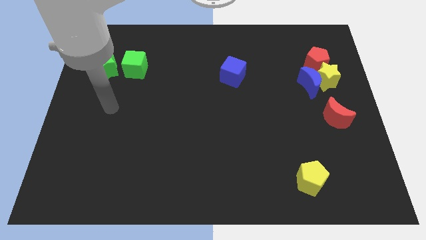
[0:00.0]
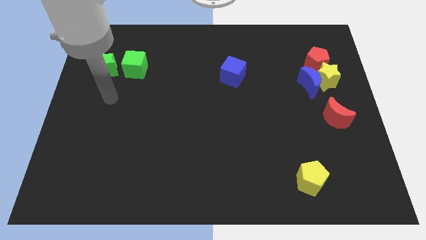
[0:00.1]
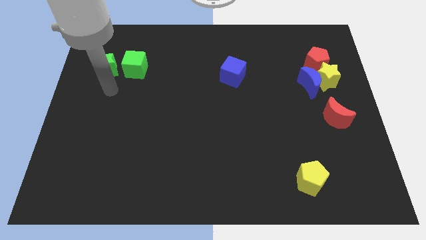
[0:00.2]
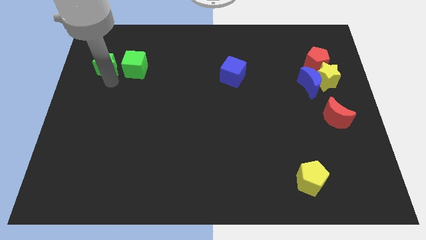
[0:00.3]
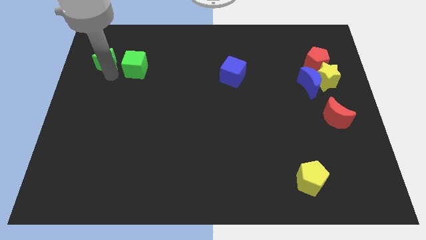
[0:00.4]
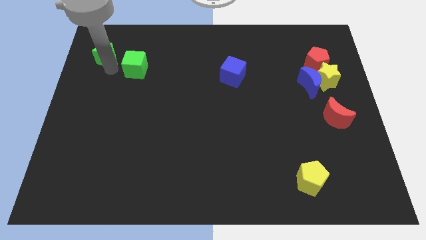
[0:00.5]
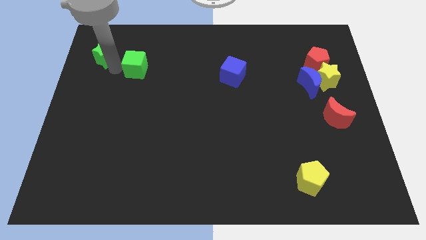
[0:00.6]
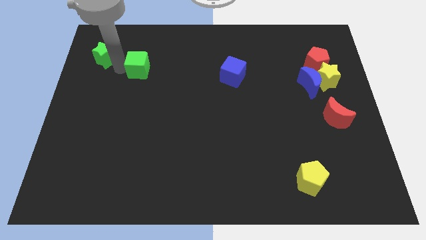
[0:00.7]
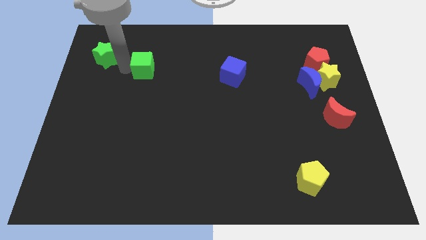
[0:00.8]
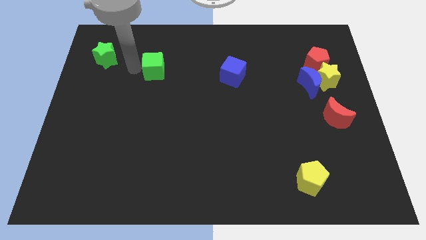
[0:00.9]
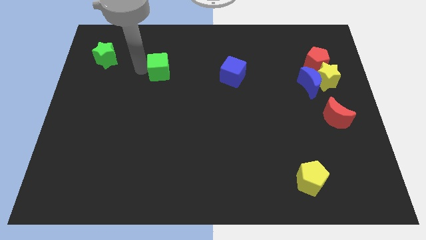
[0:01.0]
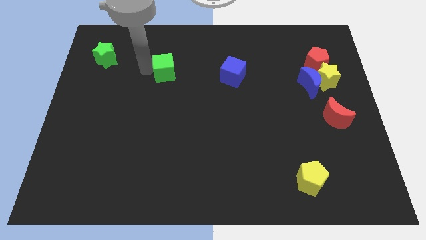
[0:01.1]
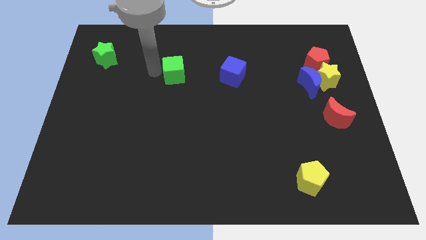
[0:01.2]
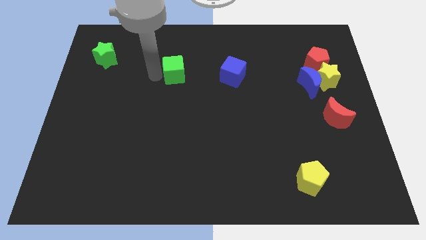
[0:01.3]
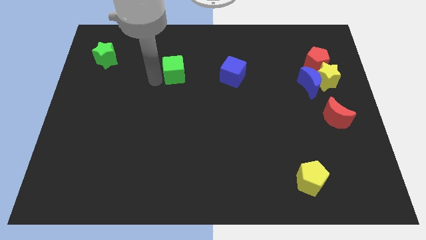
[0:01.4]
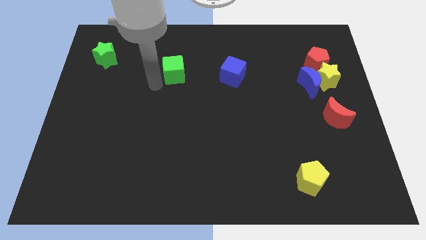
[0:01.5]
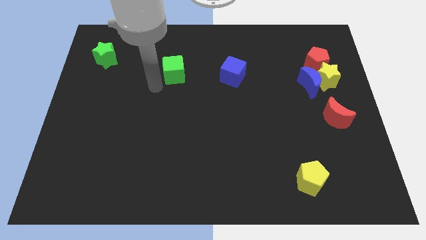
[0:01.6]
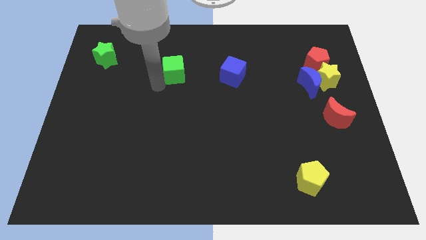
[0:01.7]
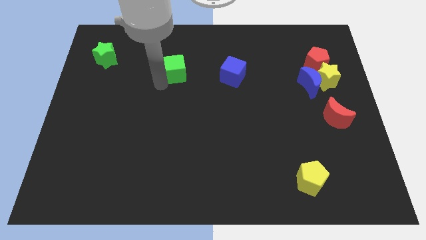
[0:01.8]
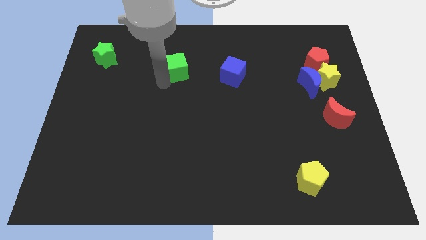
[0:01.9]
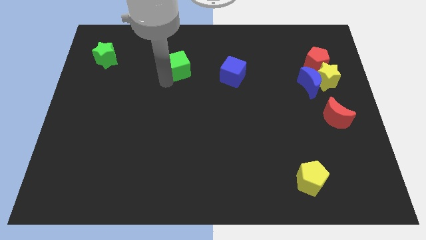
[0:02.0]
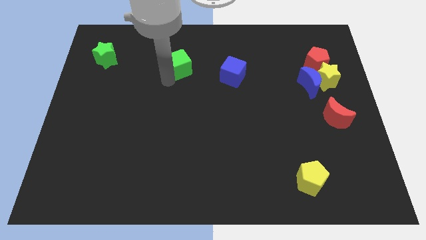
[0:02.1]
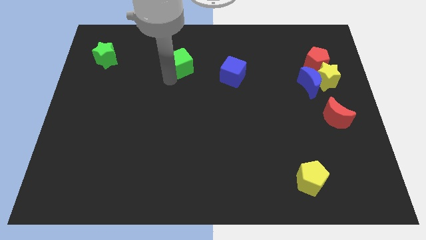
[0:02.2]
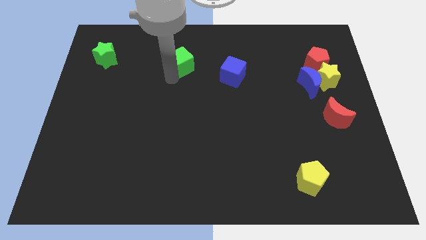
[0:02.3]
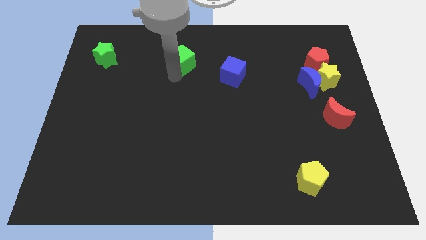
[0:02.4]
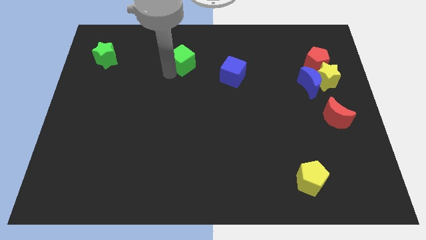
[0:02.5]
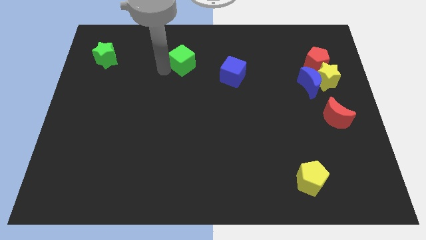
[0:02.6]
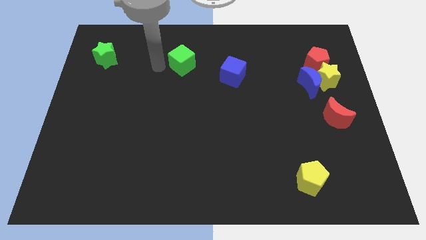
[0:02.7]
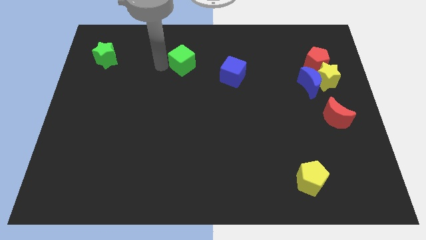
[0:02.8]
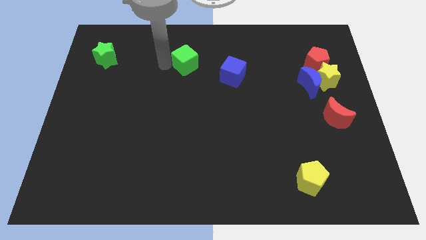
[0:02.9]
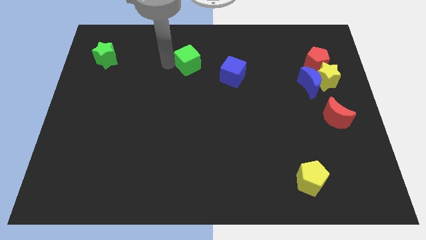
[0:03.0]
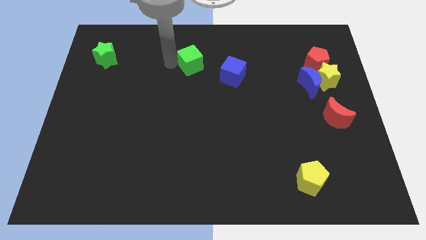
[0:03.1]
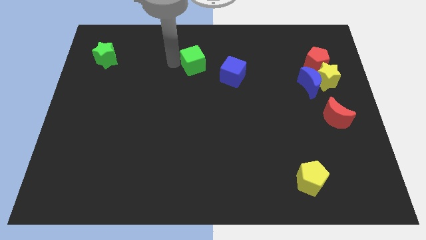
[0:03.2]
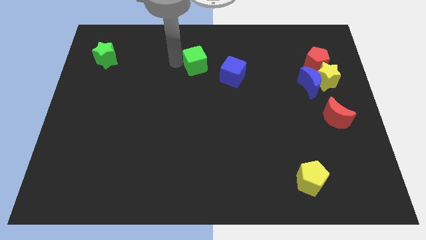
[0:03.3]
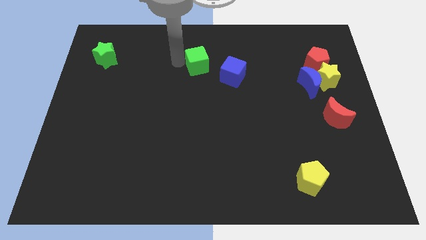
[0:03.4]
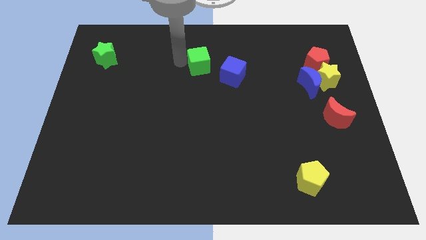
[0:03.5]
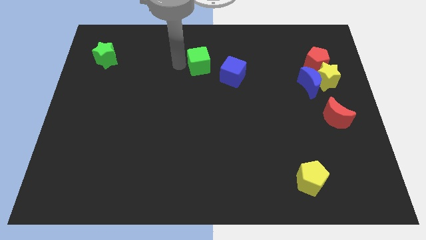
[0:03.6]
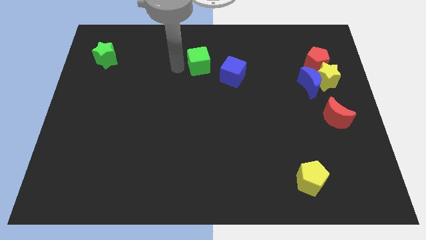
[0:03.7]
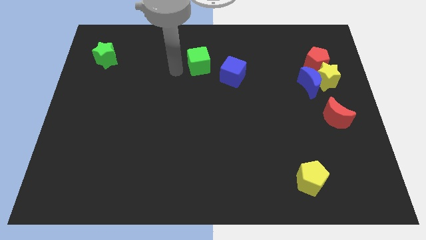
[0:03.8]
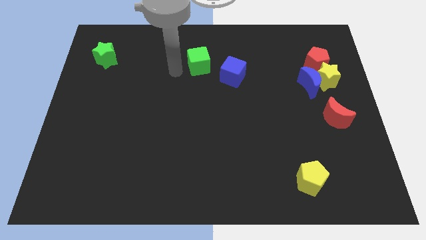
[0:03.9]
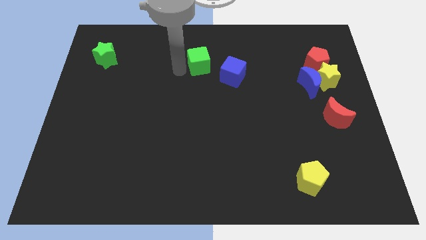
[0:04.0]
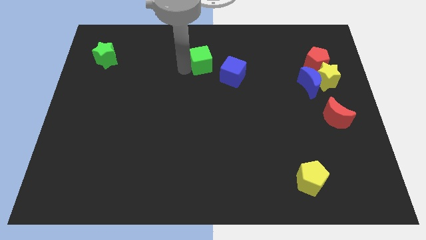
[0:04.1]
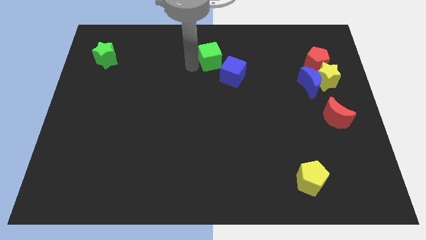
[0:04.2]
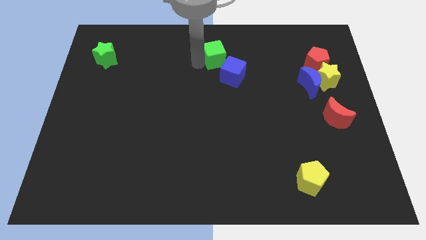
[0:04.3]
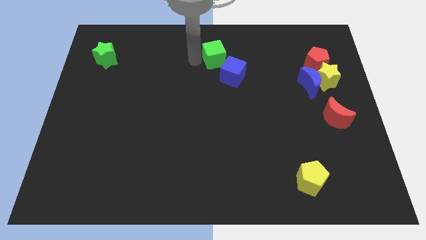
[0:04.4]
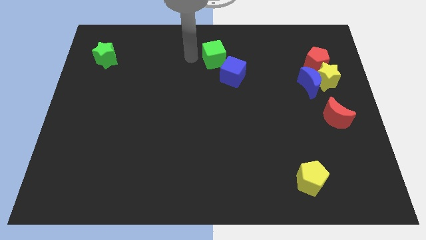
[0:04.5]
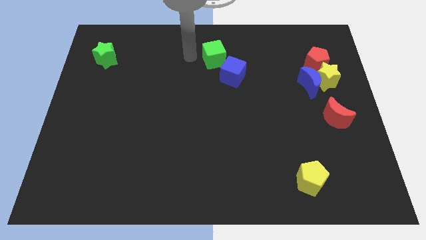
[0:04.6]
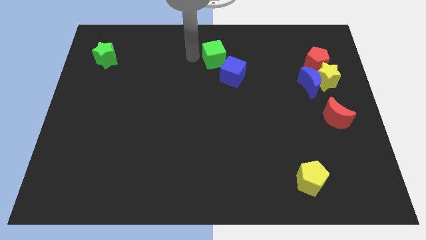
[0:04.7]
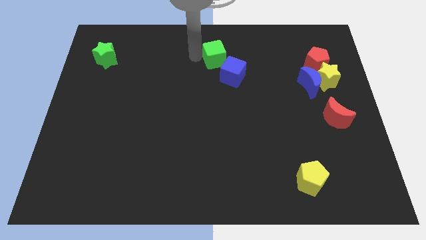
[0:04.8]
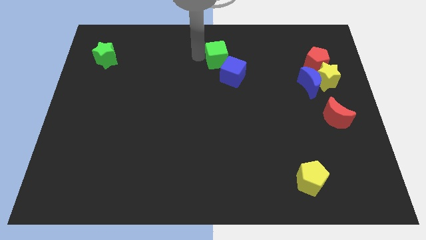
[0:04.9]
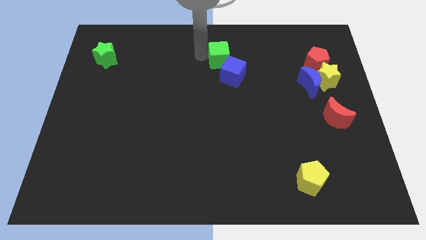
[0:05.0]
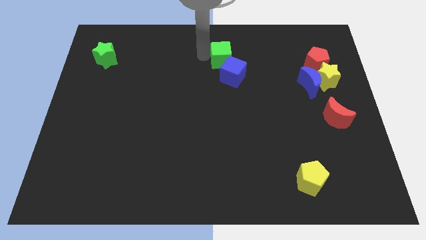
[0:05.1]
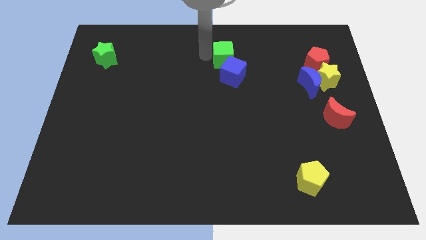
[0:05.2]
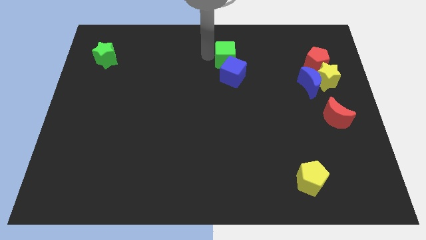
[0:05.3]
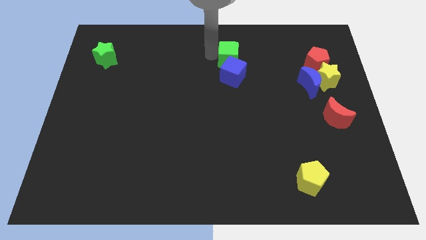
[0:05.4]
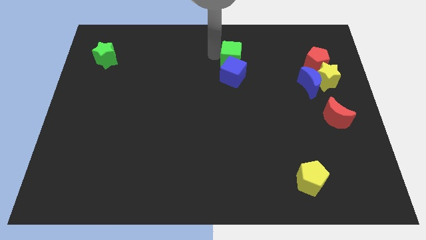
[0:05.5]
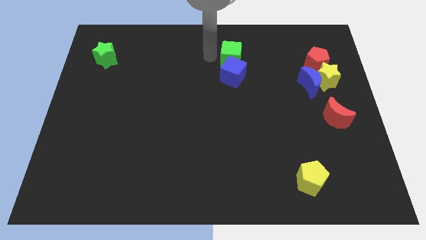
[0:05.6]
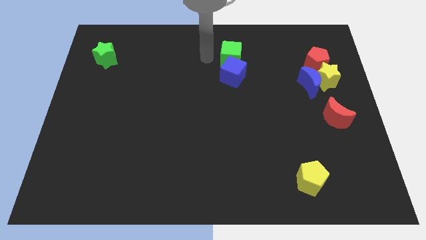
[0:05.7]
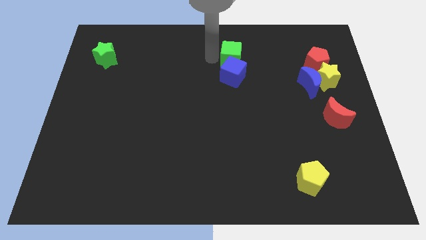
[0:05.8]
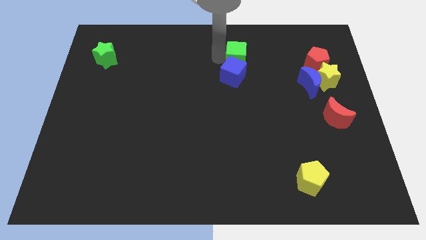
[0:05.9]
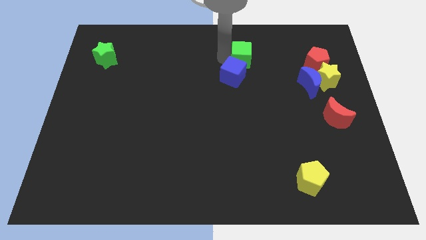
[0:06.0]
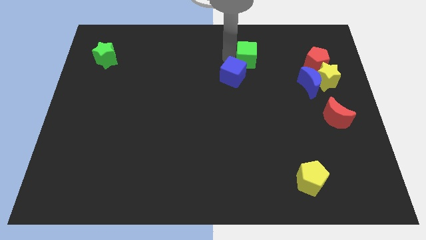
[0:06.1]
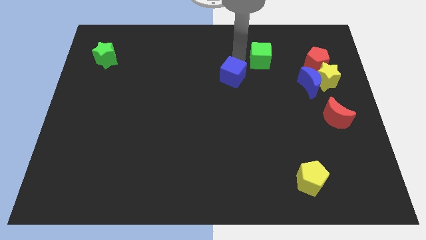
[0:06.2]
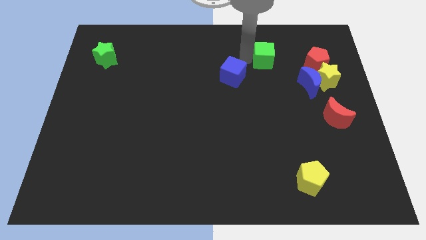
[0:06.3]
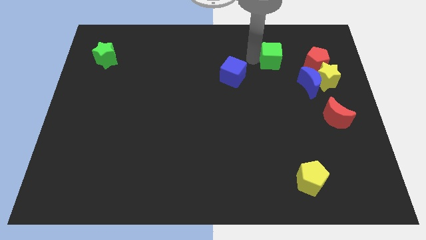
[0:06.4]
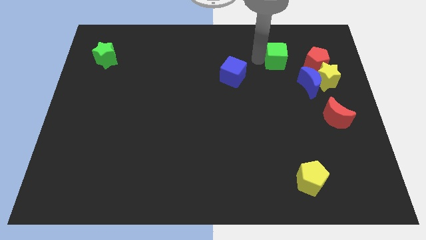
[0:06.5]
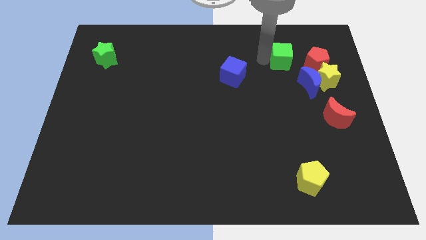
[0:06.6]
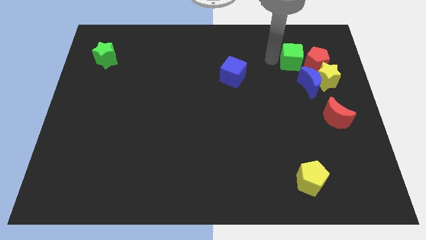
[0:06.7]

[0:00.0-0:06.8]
slide the green cube towards the red pentagon

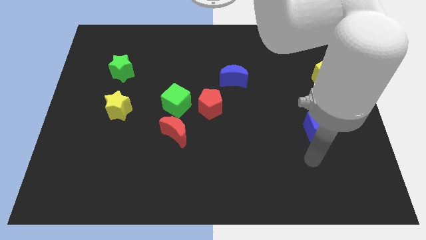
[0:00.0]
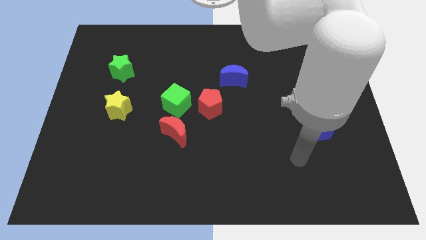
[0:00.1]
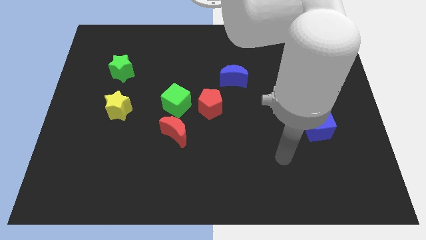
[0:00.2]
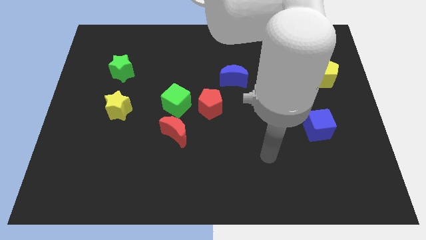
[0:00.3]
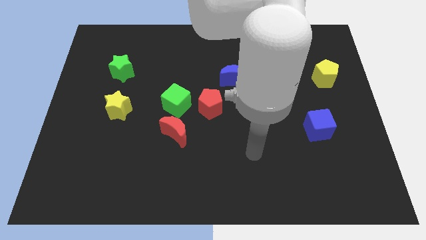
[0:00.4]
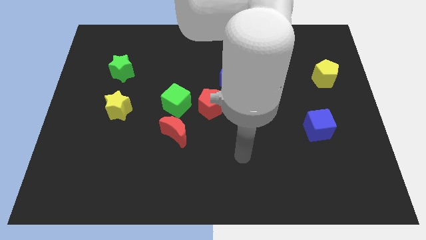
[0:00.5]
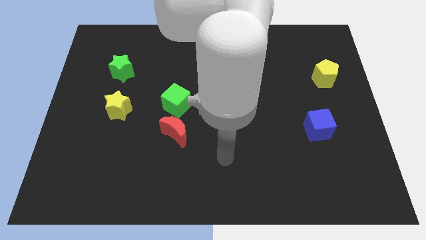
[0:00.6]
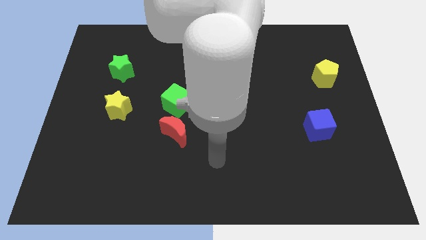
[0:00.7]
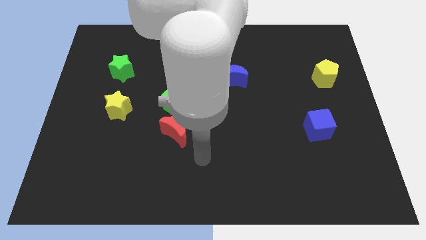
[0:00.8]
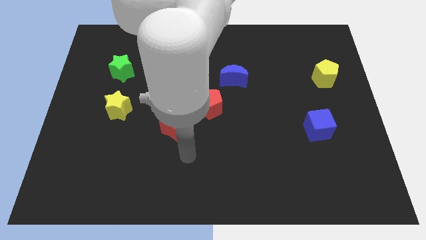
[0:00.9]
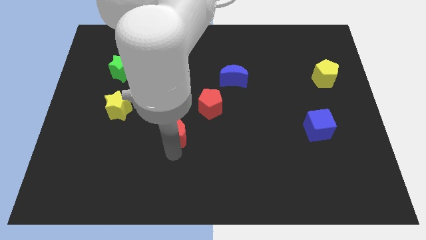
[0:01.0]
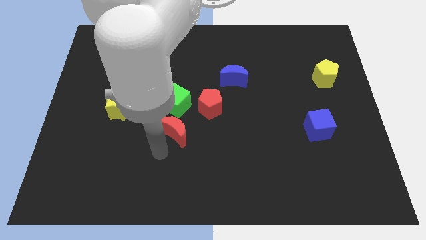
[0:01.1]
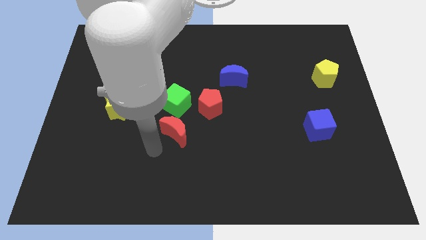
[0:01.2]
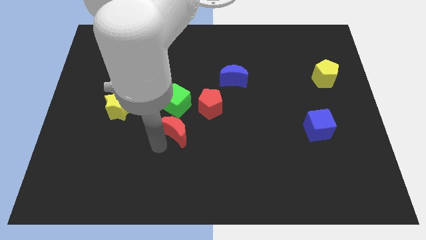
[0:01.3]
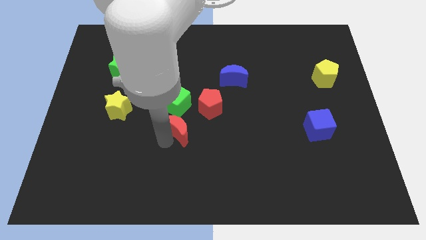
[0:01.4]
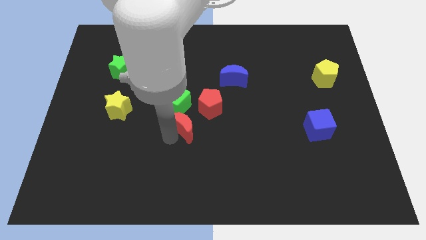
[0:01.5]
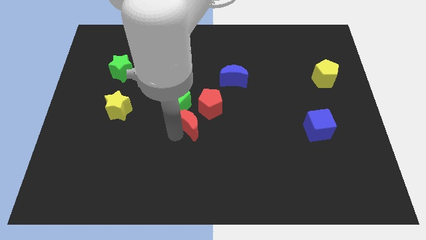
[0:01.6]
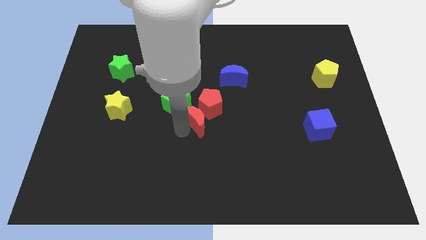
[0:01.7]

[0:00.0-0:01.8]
slide the red moon close to the red pentagon
